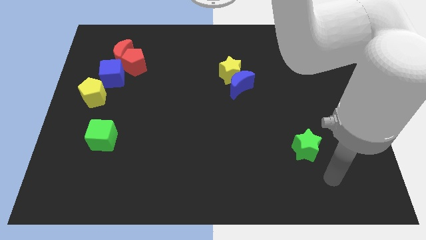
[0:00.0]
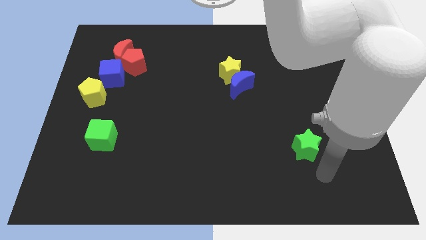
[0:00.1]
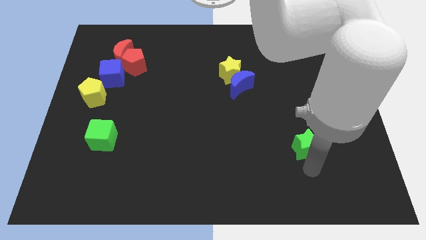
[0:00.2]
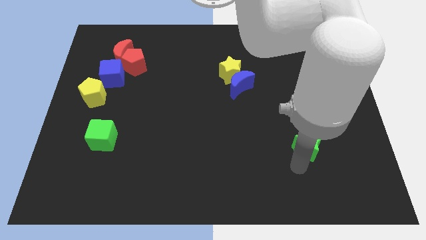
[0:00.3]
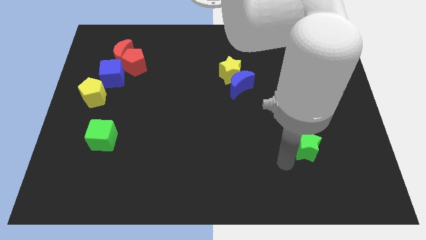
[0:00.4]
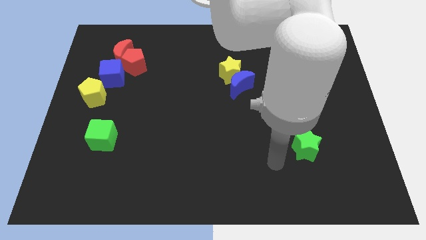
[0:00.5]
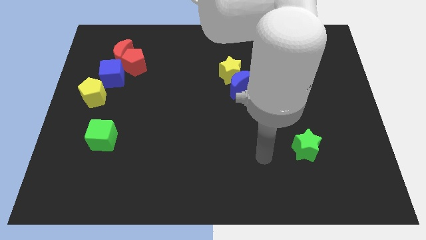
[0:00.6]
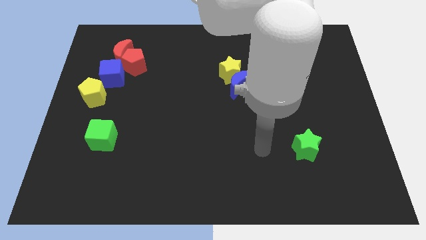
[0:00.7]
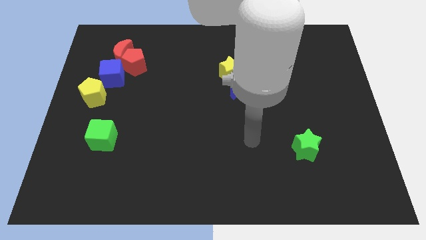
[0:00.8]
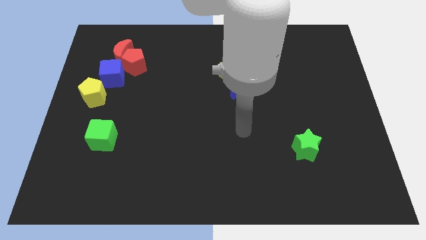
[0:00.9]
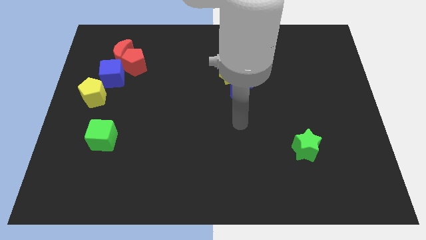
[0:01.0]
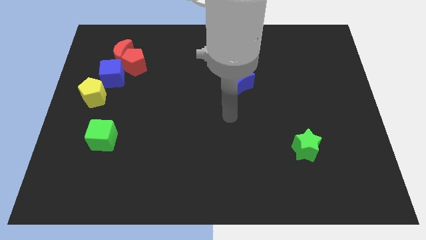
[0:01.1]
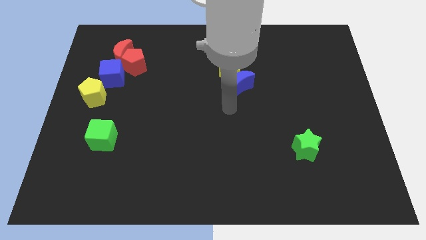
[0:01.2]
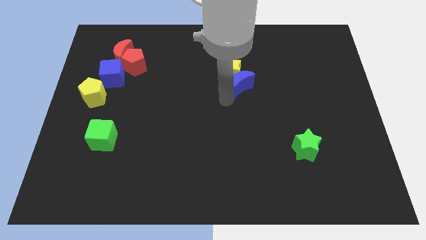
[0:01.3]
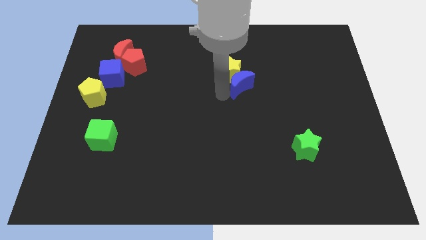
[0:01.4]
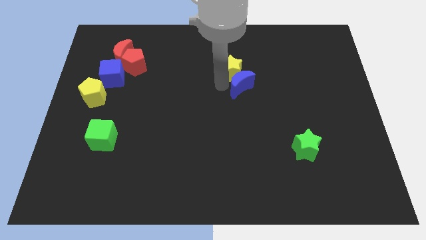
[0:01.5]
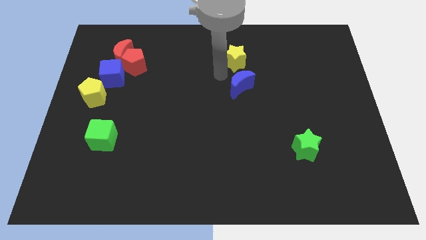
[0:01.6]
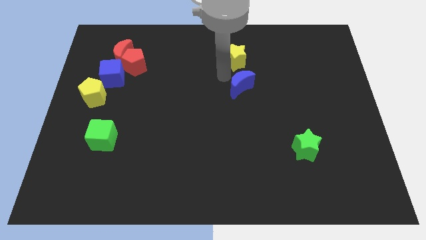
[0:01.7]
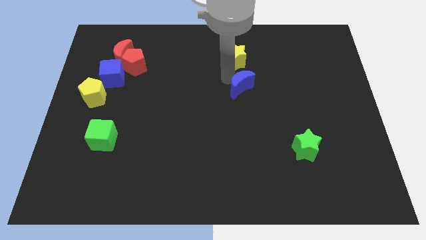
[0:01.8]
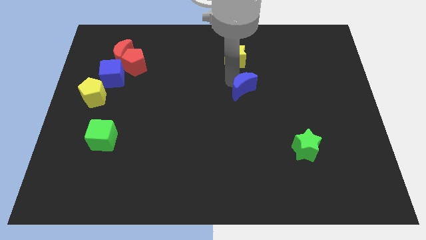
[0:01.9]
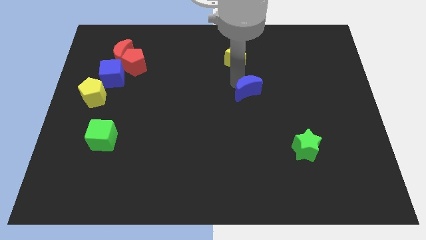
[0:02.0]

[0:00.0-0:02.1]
move the blue moon away from the yellow star

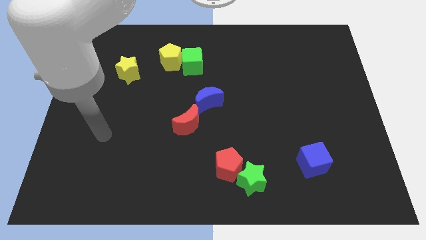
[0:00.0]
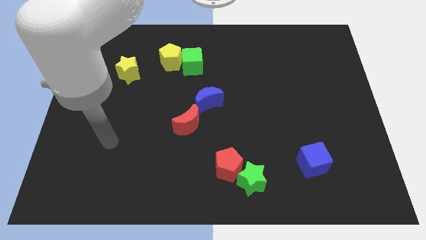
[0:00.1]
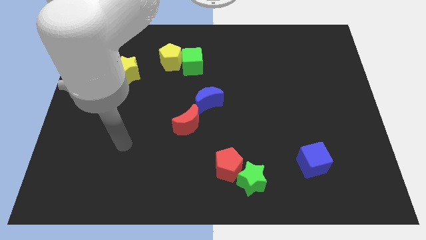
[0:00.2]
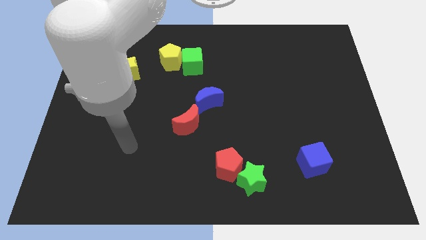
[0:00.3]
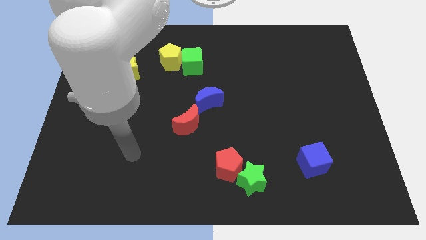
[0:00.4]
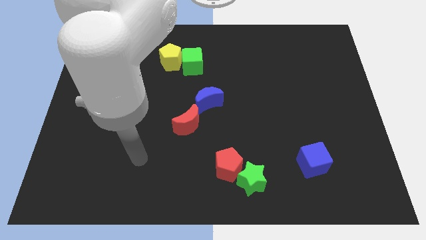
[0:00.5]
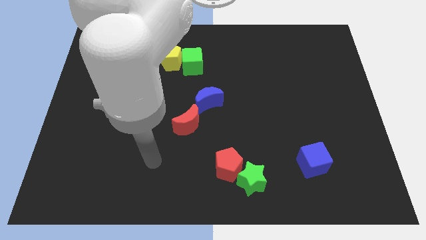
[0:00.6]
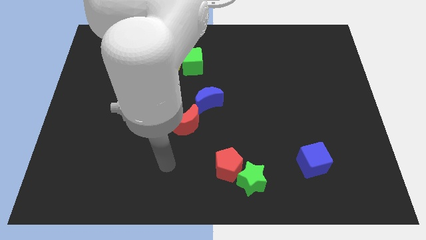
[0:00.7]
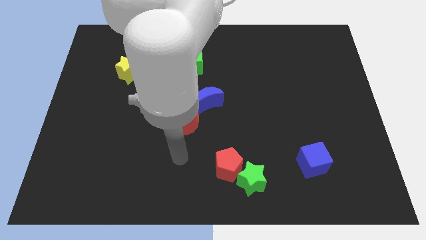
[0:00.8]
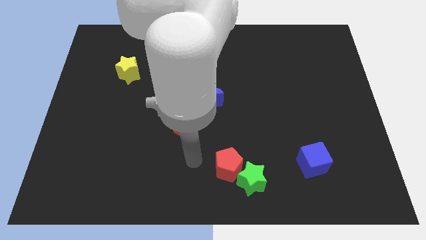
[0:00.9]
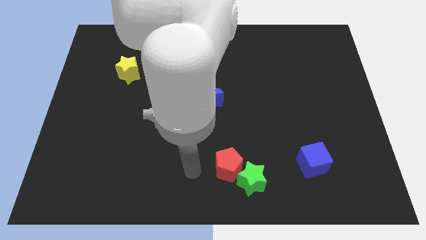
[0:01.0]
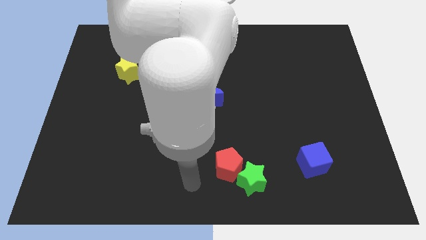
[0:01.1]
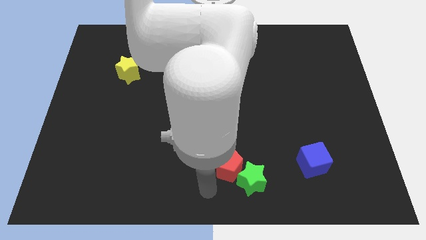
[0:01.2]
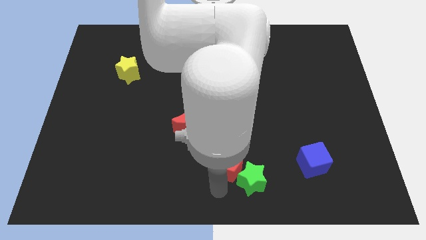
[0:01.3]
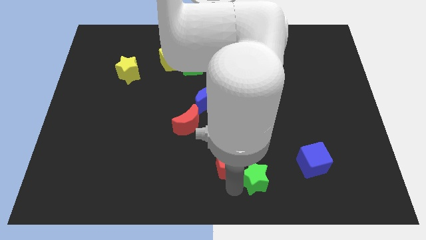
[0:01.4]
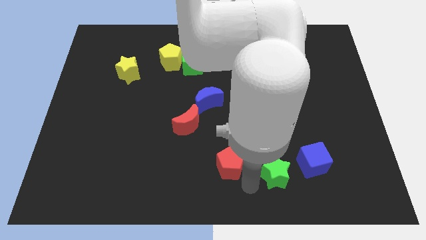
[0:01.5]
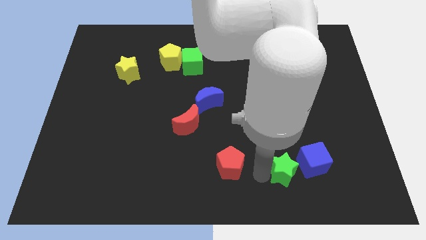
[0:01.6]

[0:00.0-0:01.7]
separate the red pentagon from the green star

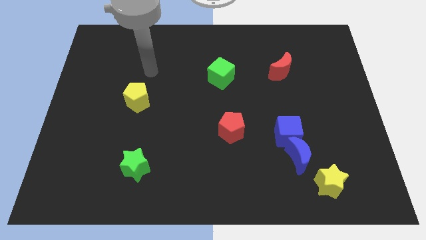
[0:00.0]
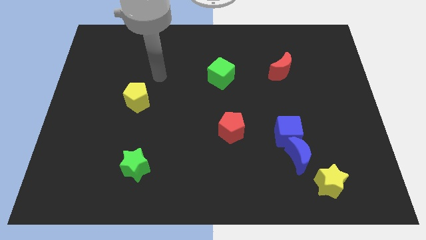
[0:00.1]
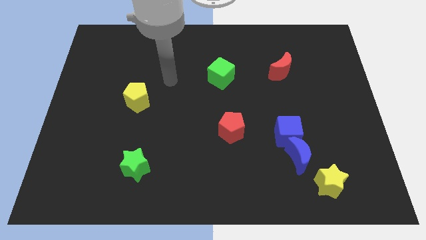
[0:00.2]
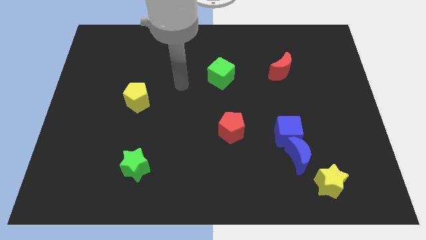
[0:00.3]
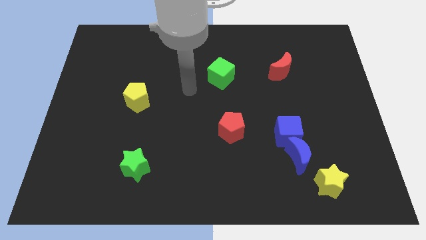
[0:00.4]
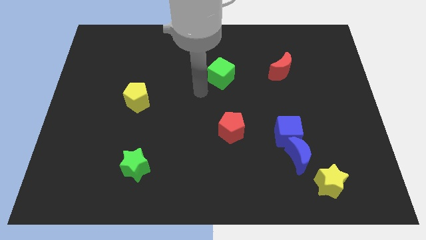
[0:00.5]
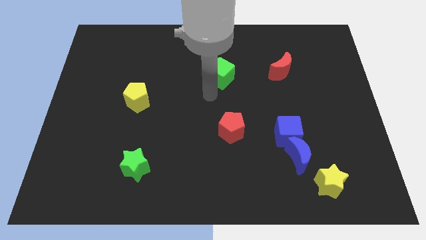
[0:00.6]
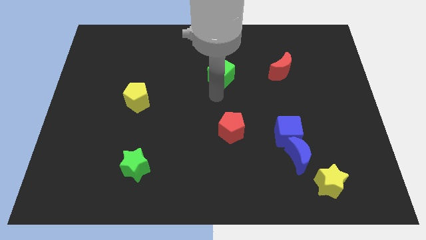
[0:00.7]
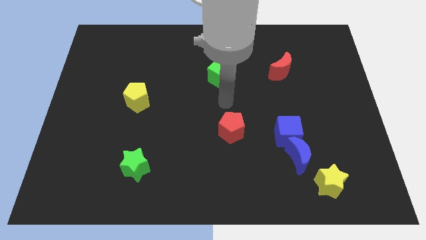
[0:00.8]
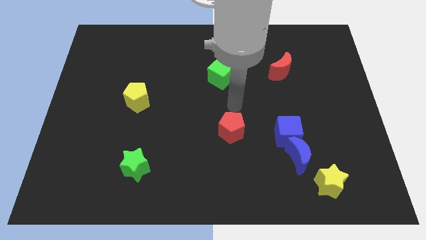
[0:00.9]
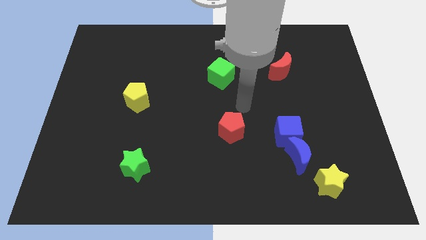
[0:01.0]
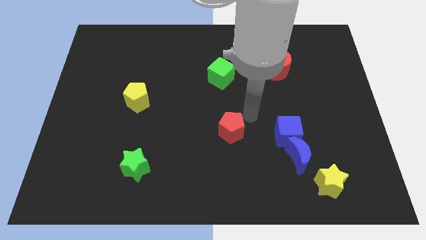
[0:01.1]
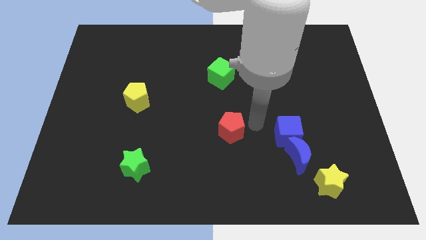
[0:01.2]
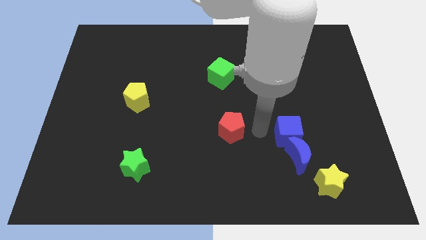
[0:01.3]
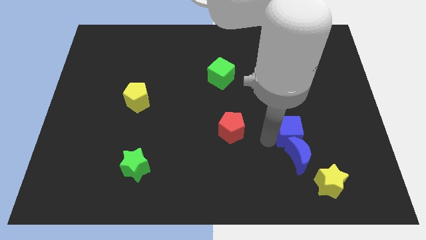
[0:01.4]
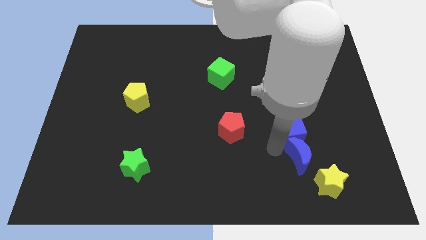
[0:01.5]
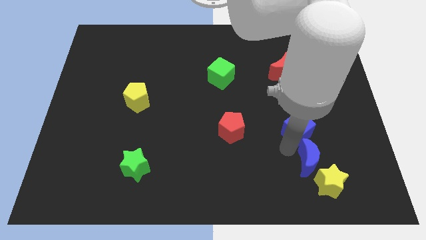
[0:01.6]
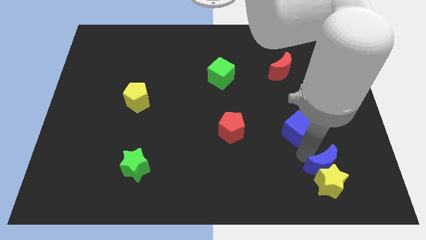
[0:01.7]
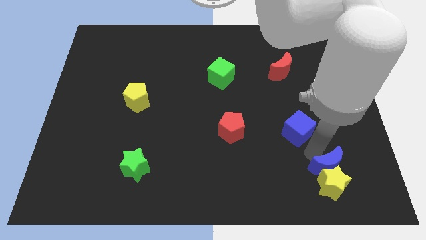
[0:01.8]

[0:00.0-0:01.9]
pull the blue cube apart from the blue moon

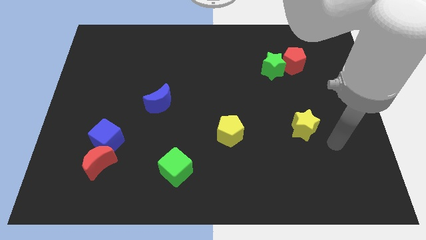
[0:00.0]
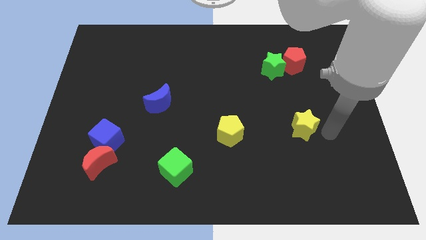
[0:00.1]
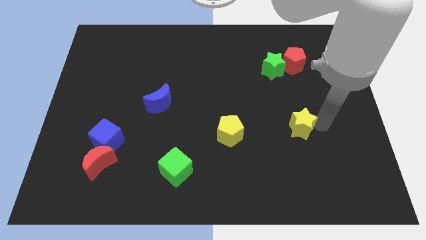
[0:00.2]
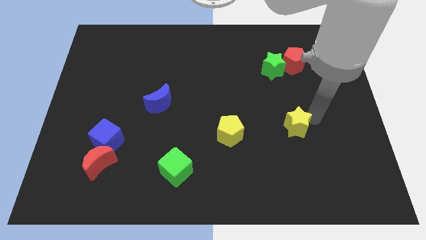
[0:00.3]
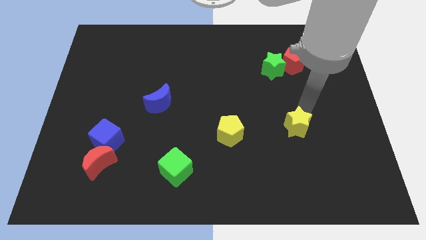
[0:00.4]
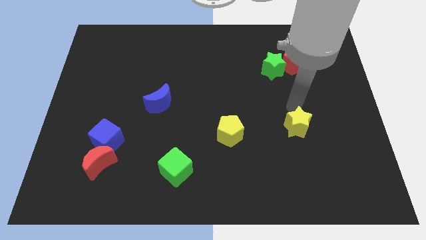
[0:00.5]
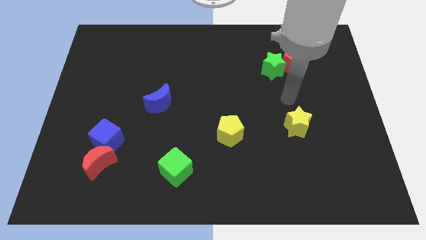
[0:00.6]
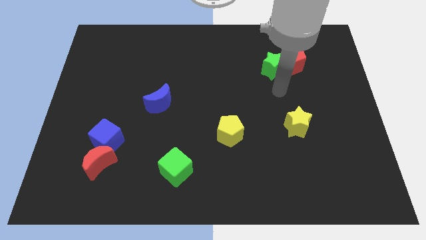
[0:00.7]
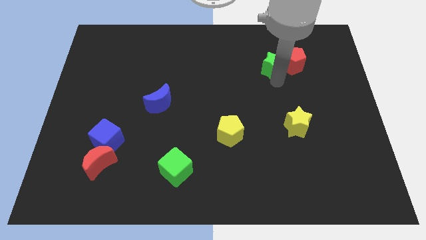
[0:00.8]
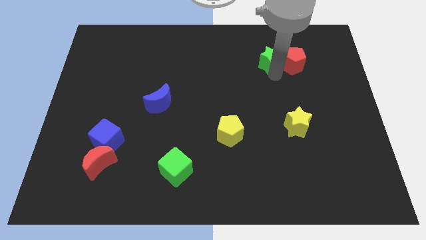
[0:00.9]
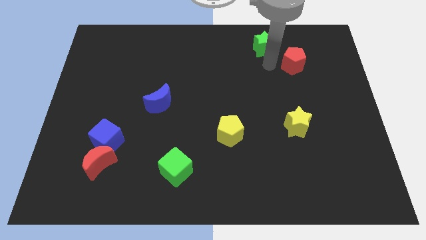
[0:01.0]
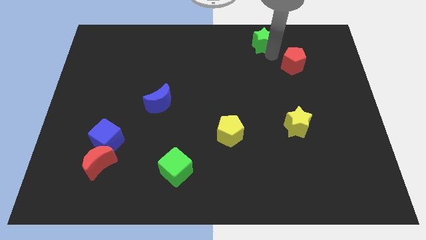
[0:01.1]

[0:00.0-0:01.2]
move the red pentagon away from the green star

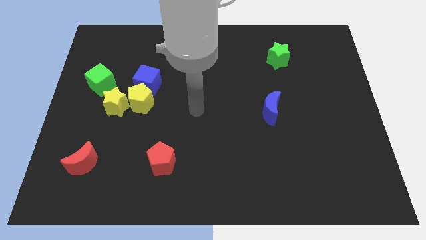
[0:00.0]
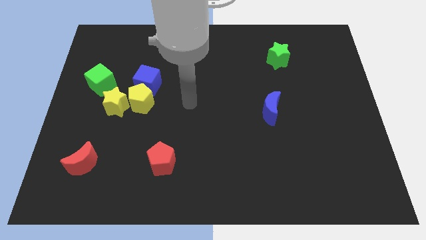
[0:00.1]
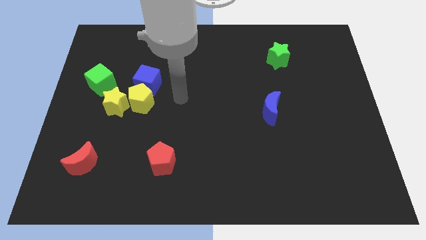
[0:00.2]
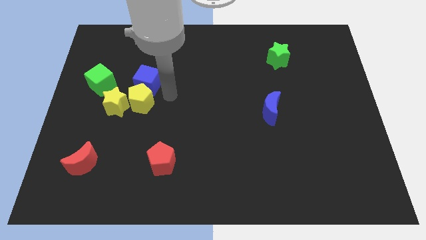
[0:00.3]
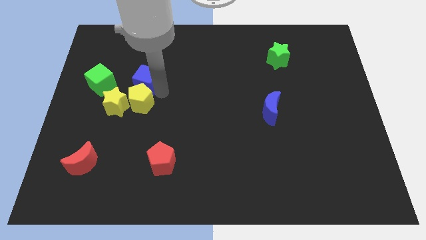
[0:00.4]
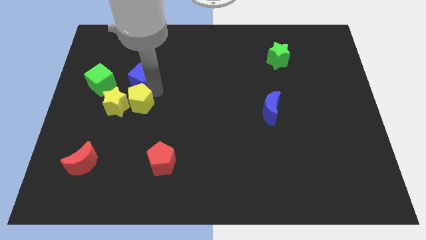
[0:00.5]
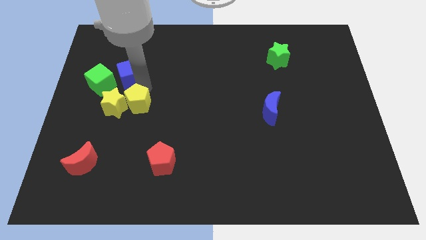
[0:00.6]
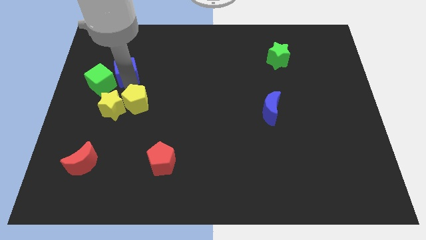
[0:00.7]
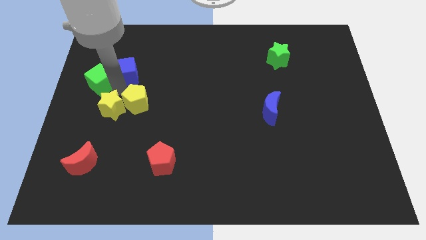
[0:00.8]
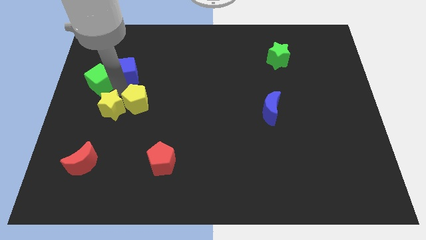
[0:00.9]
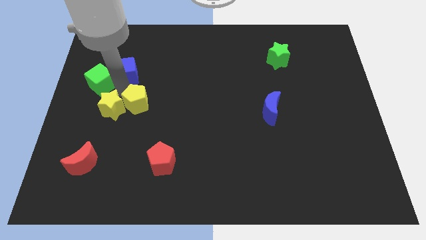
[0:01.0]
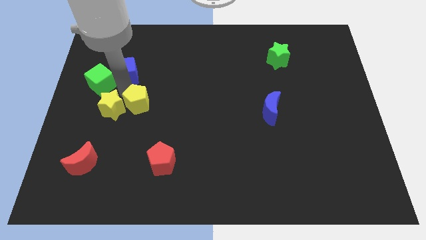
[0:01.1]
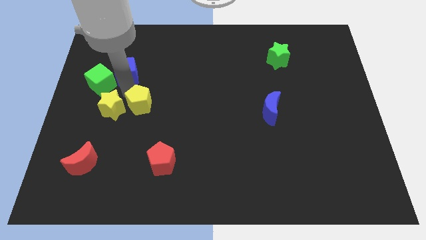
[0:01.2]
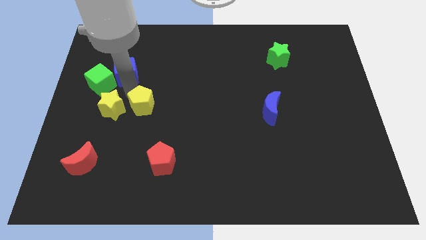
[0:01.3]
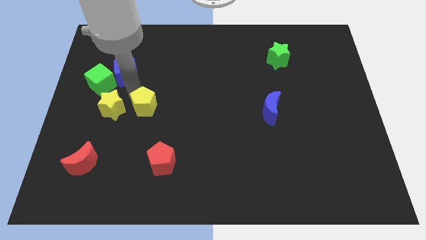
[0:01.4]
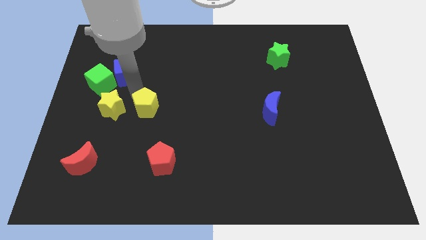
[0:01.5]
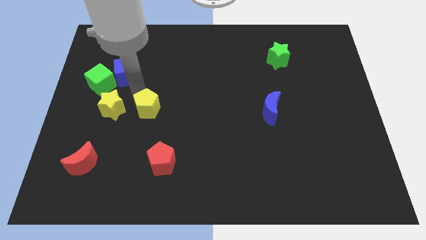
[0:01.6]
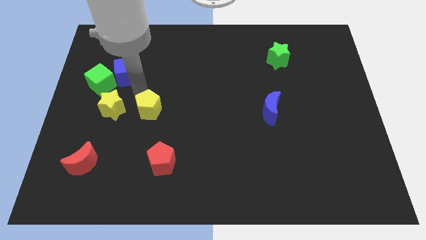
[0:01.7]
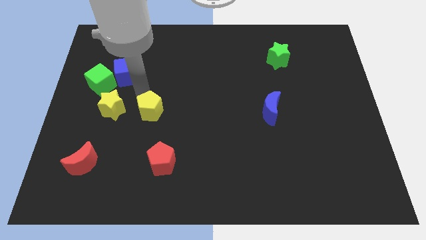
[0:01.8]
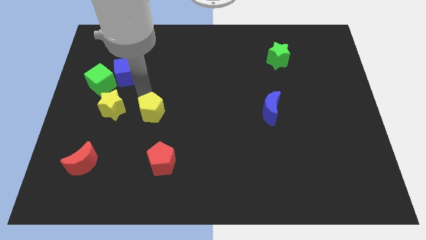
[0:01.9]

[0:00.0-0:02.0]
move the yellow pentagon away from the blue cube and yellow star

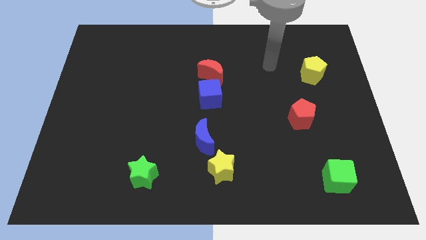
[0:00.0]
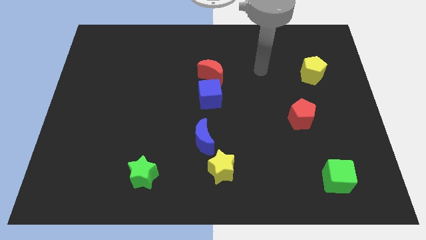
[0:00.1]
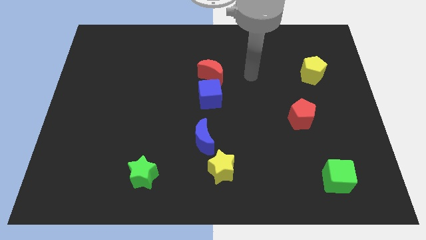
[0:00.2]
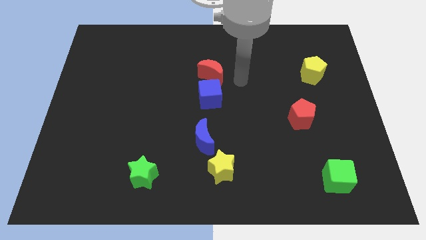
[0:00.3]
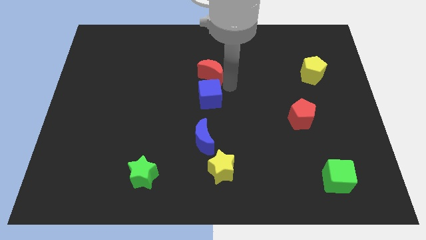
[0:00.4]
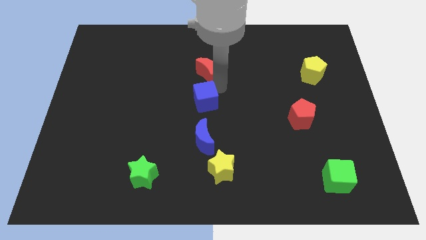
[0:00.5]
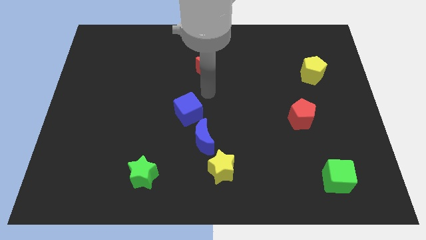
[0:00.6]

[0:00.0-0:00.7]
separate the red moon from the blue cube
